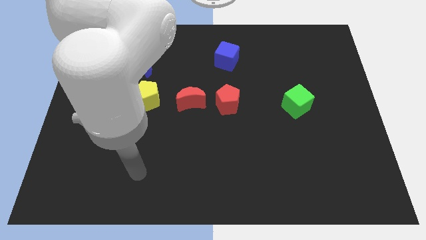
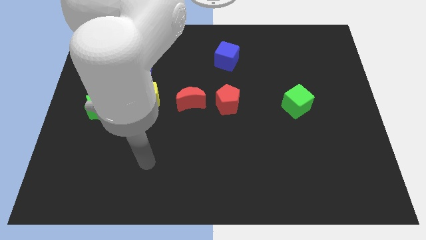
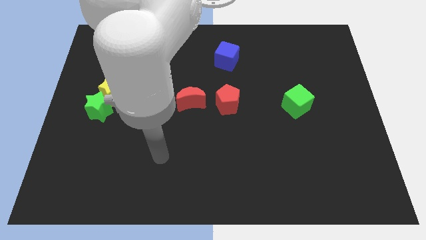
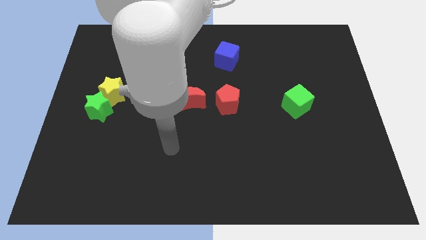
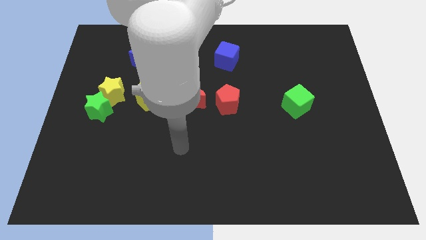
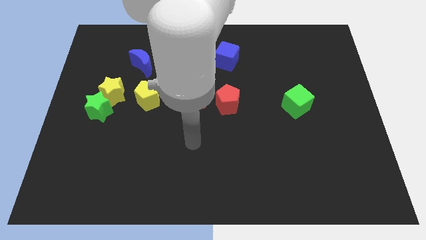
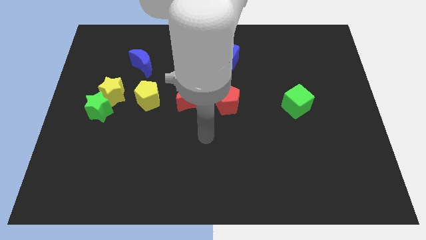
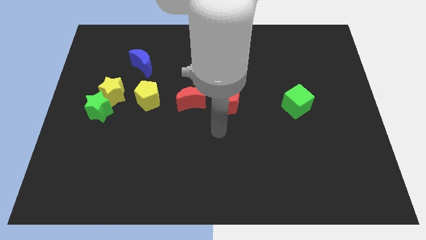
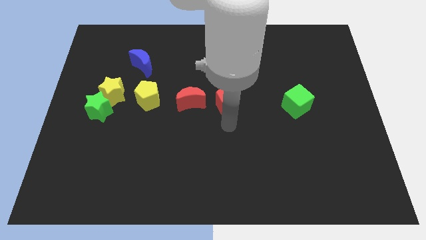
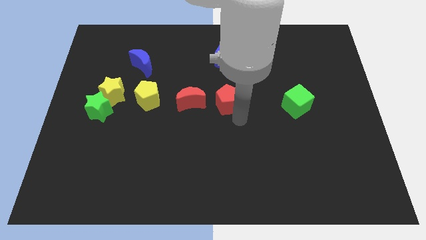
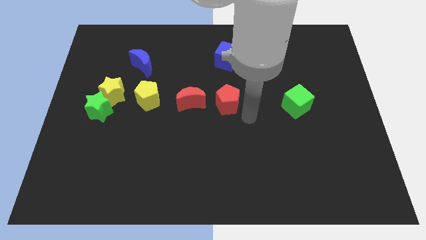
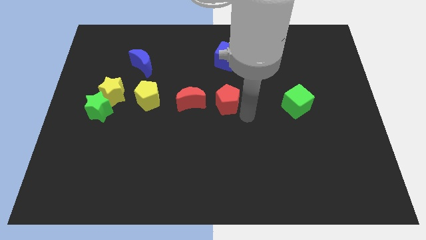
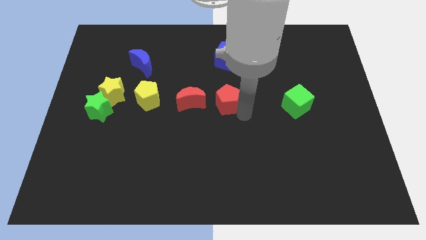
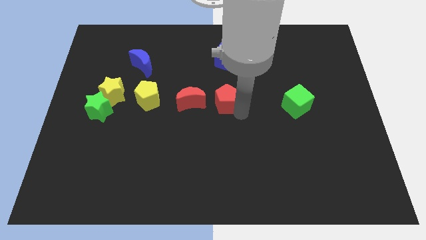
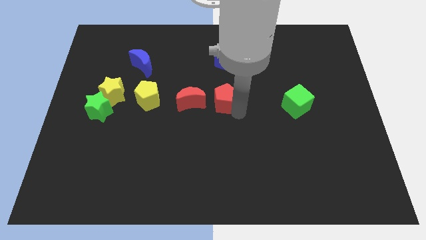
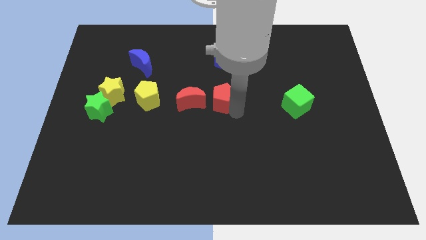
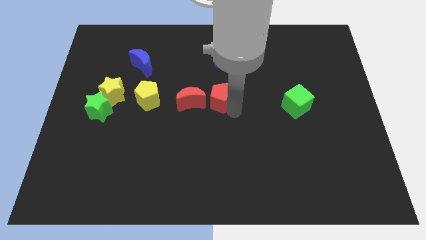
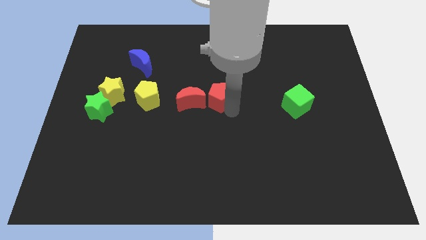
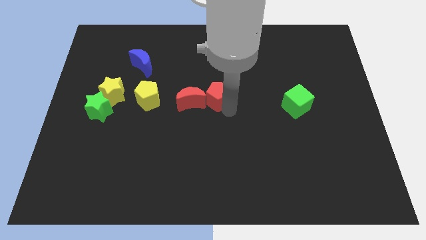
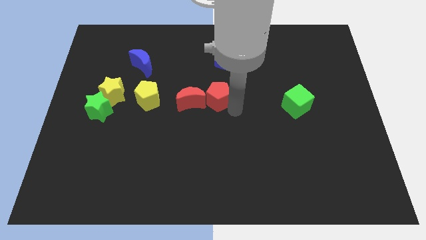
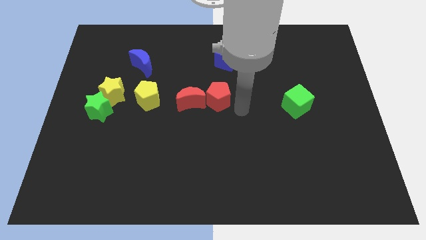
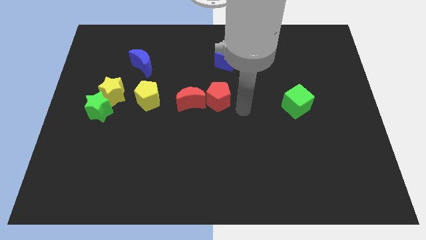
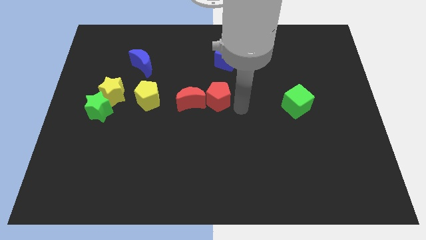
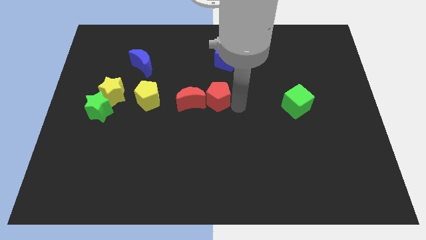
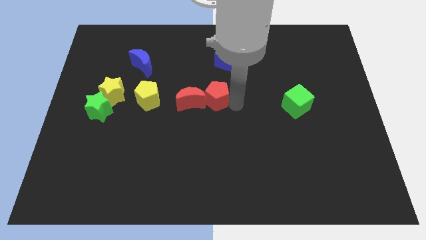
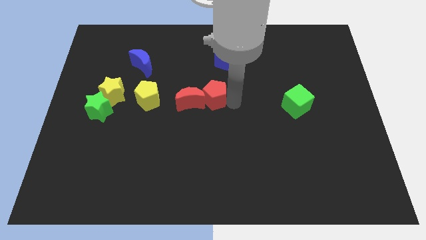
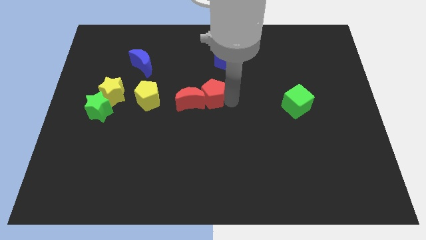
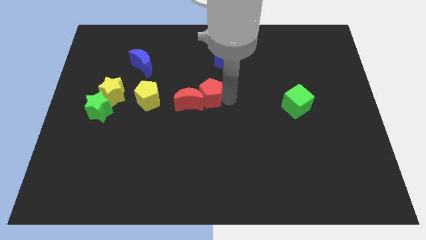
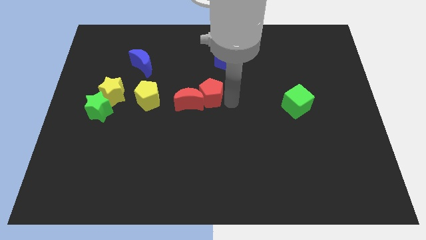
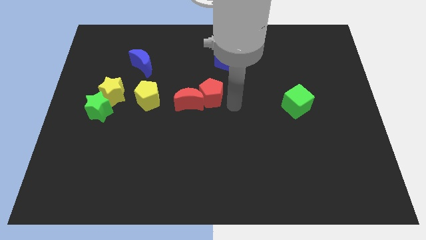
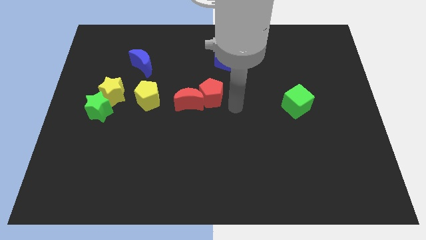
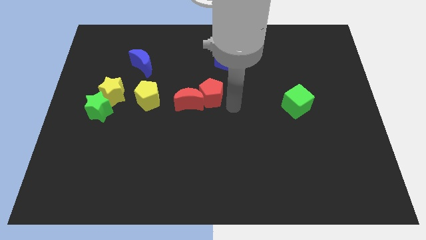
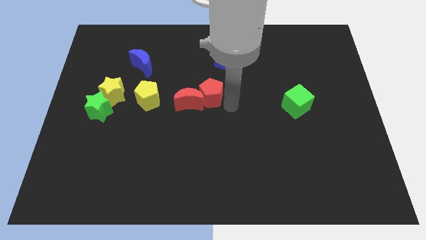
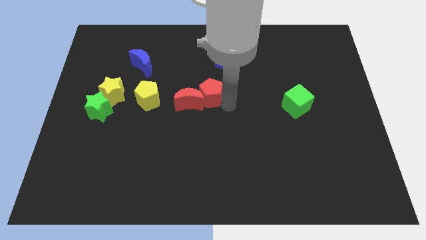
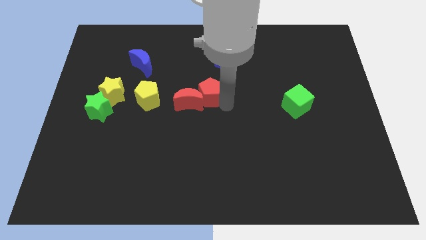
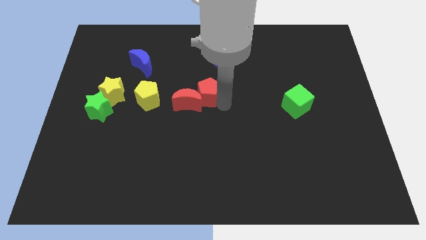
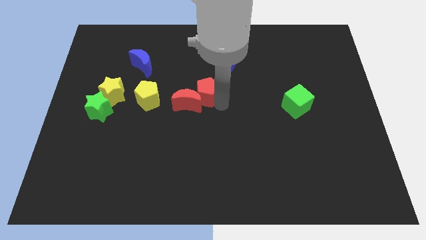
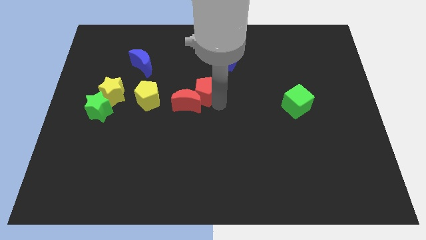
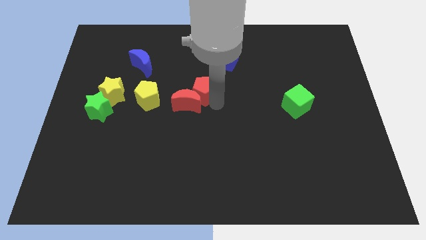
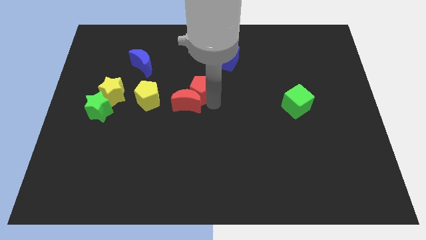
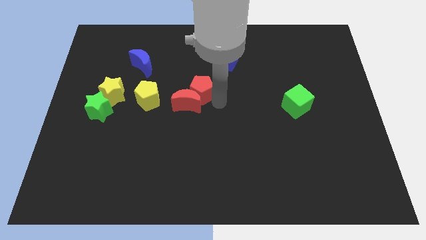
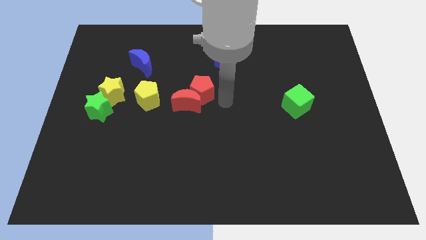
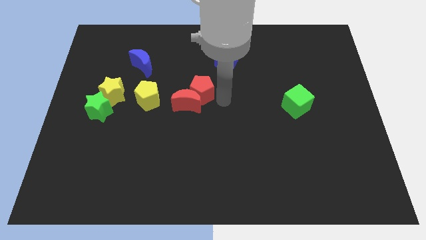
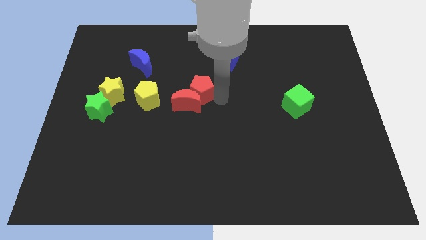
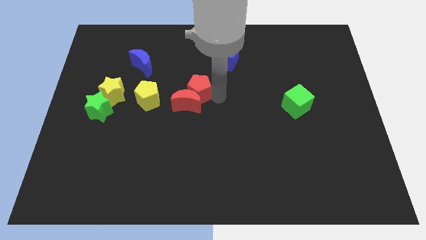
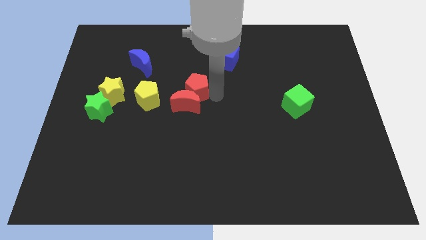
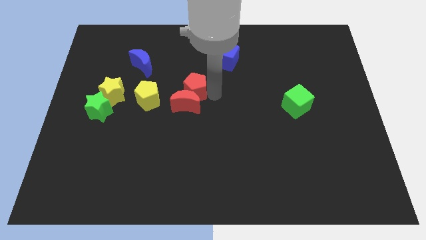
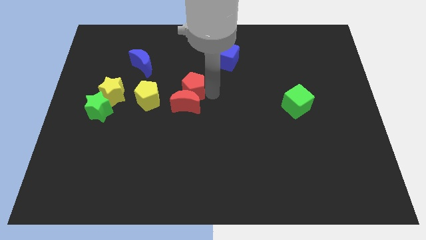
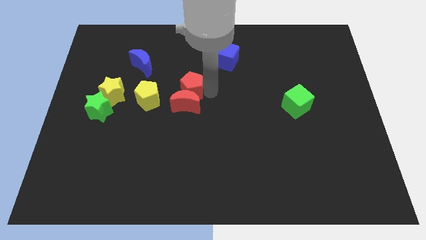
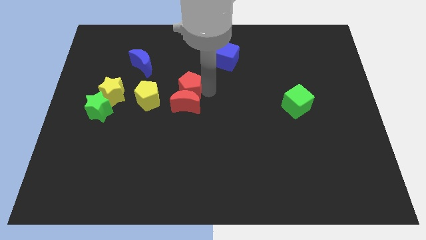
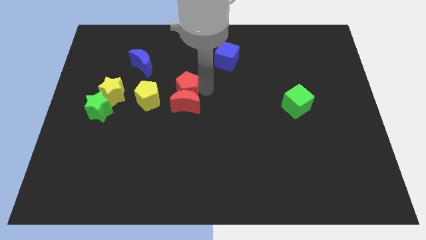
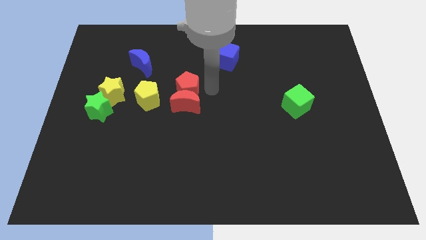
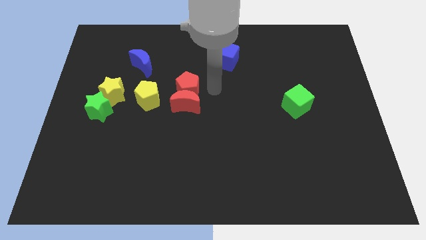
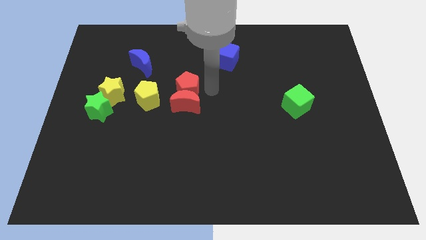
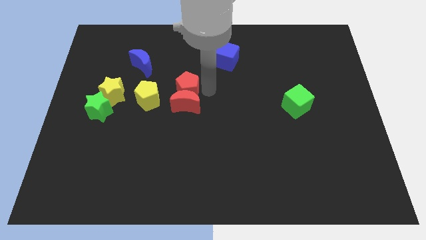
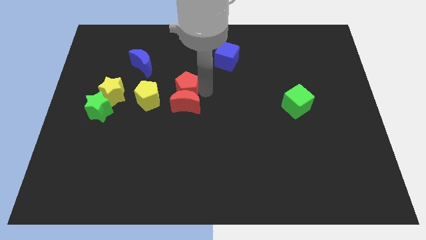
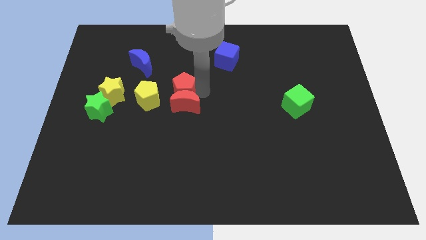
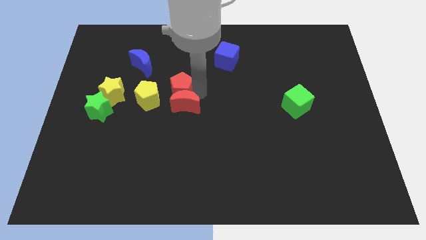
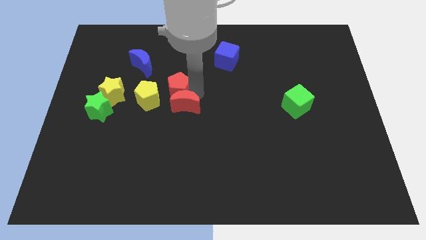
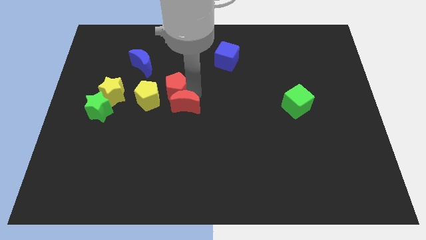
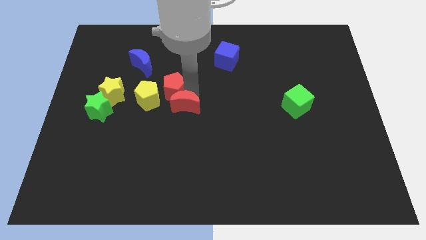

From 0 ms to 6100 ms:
push the red pentagon close to the yellow pentagon

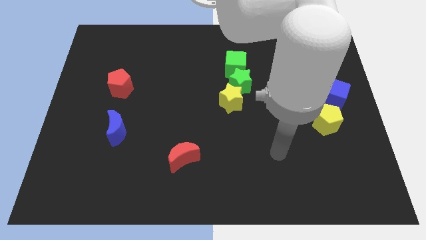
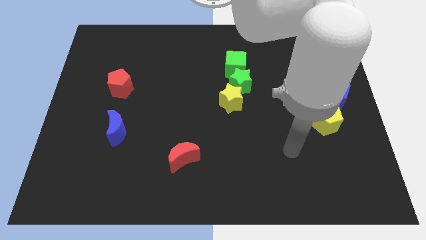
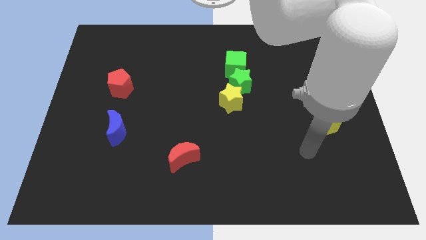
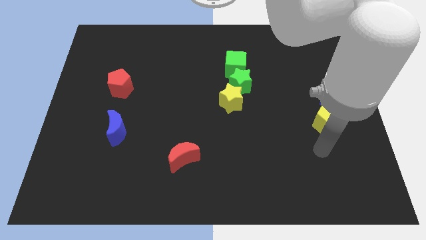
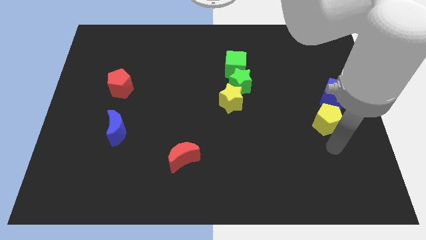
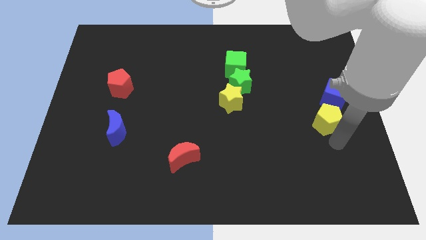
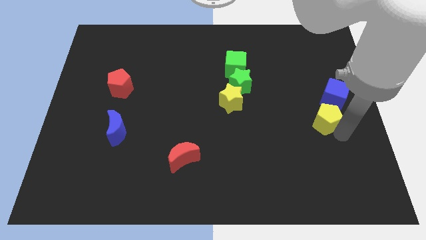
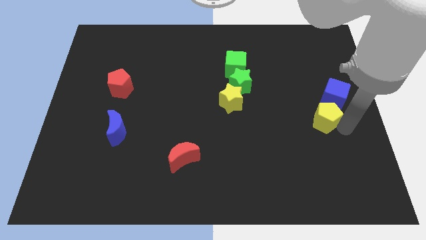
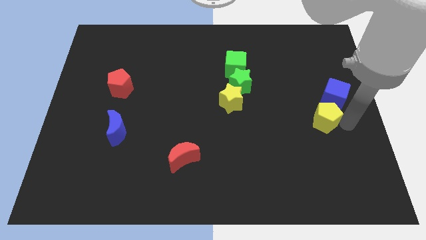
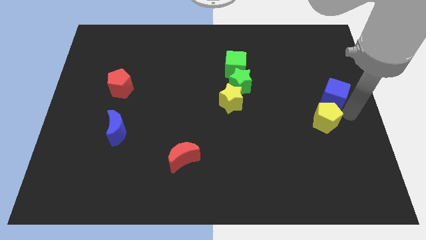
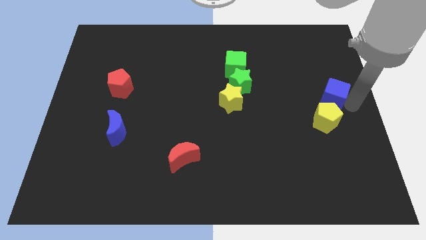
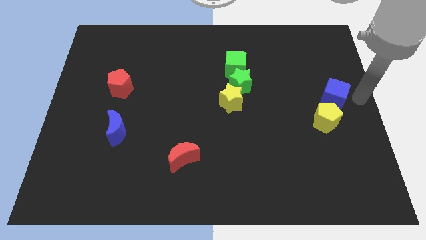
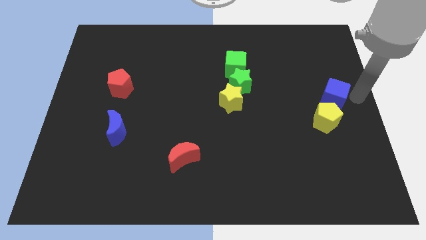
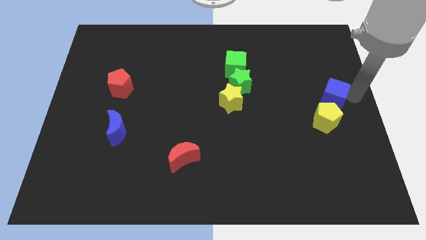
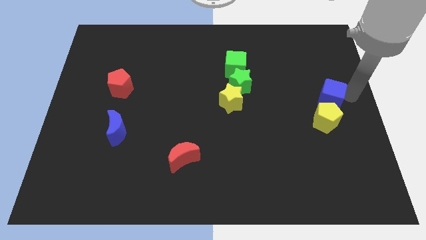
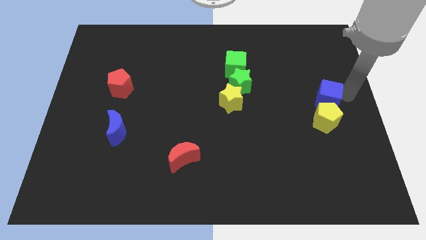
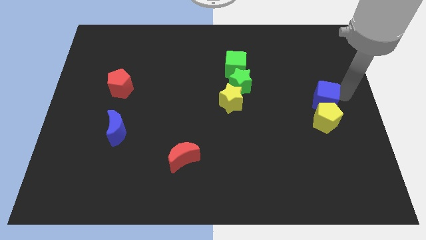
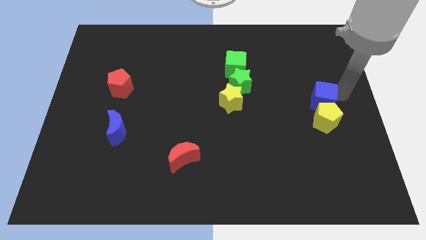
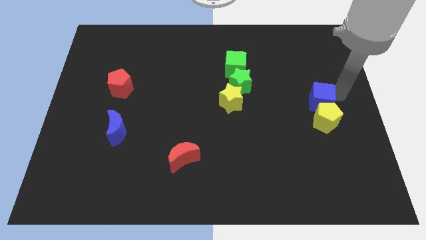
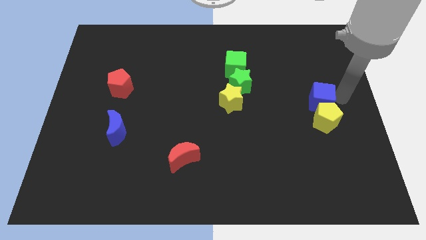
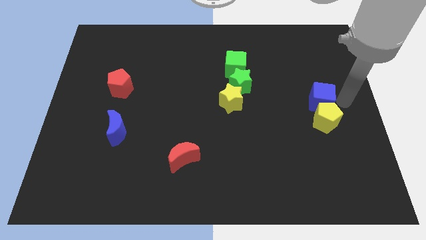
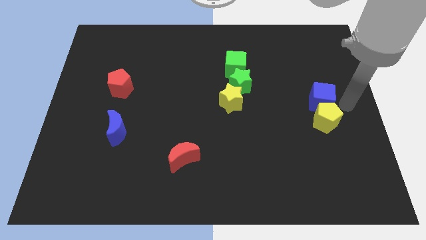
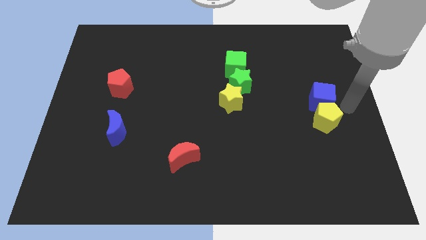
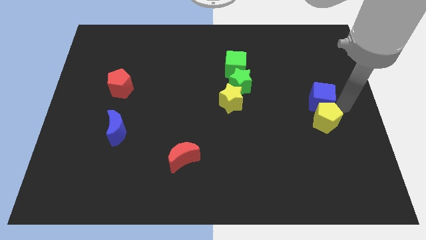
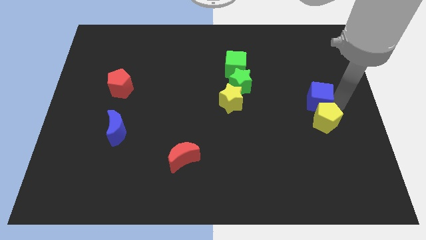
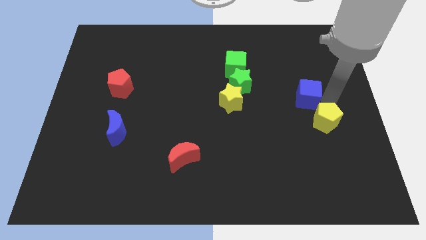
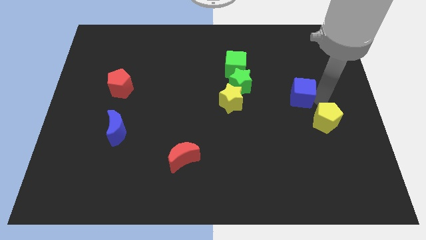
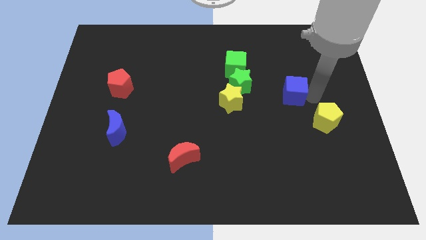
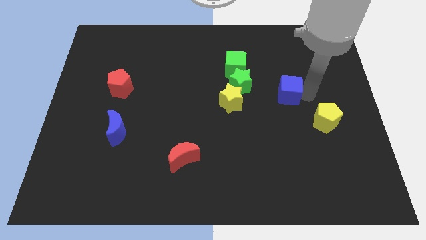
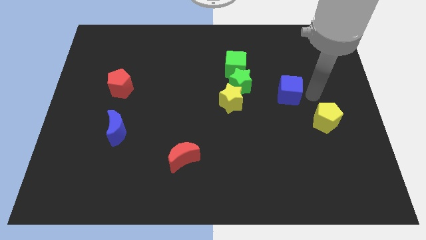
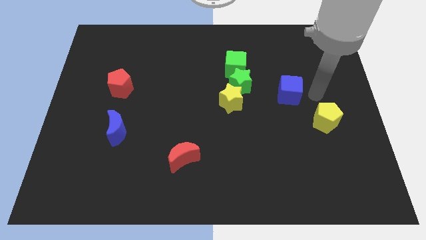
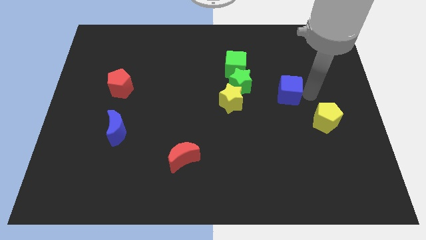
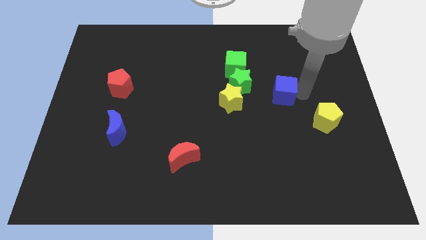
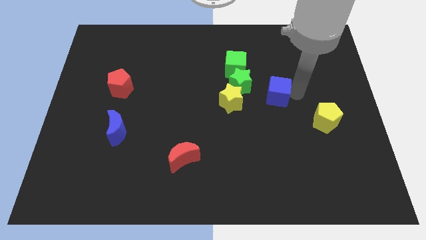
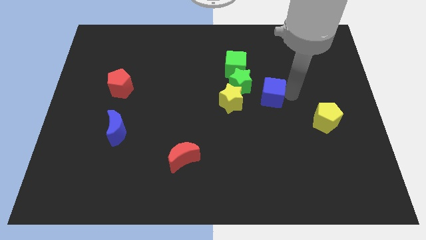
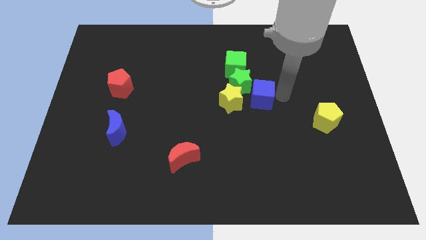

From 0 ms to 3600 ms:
put the blue cube towards the green star
